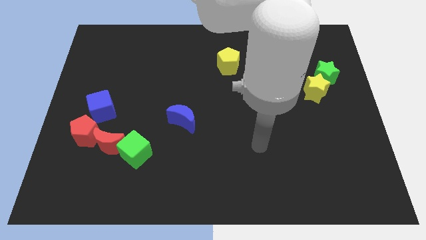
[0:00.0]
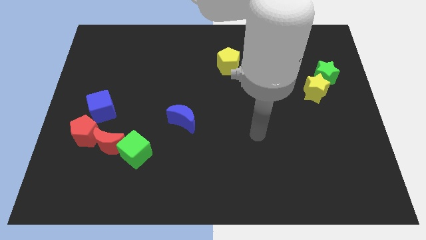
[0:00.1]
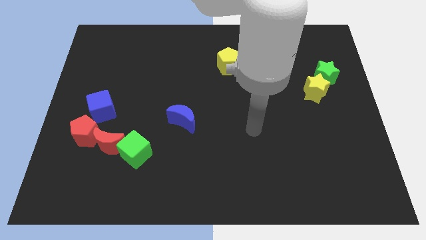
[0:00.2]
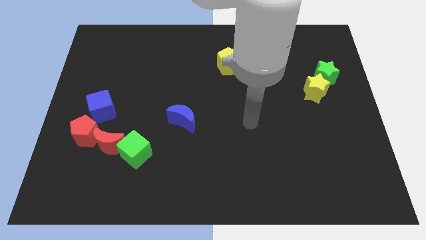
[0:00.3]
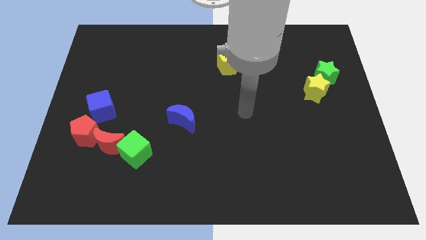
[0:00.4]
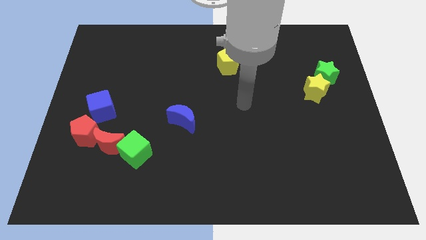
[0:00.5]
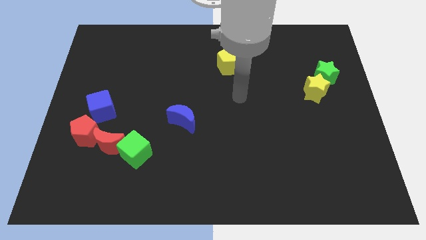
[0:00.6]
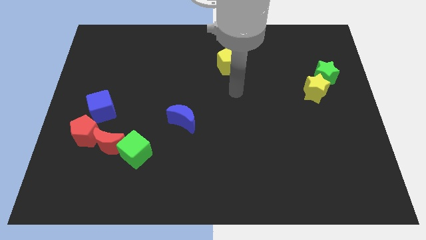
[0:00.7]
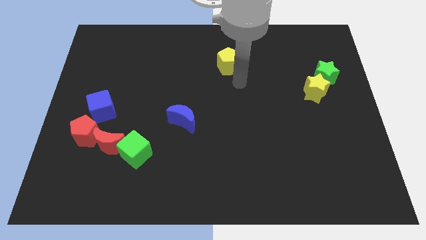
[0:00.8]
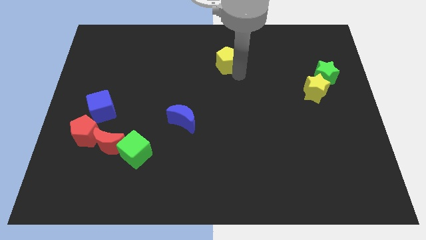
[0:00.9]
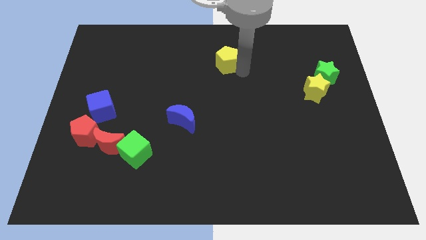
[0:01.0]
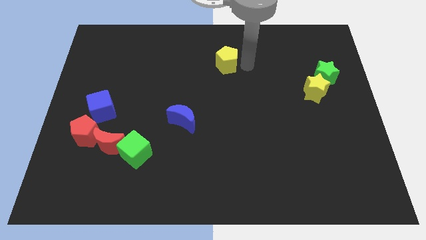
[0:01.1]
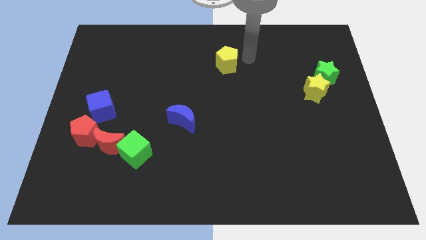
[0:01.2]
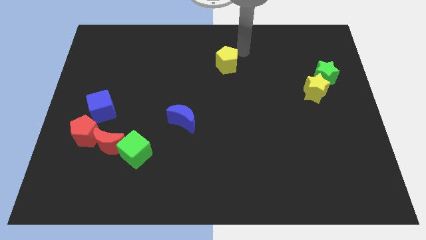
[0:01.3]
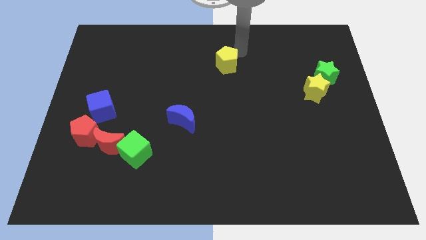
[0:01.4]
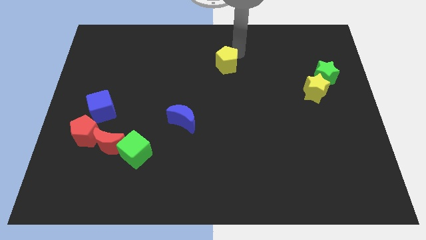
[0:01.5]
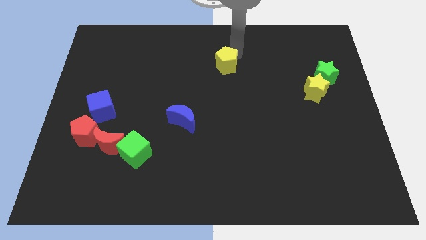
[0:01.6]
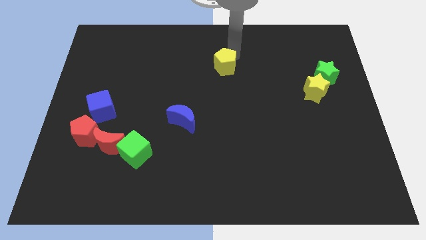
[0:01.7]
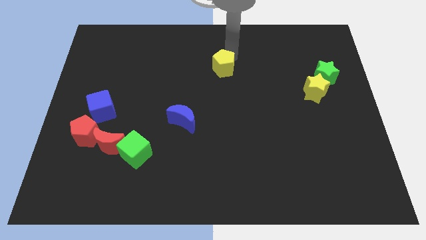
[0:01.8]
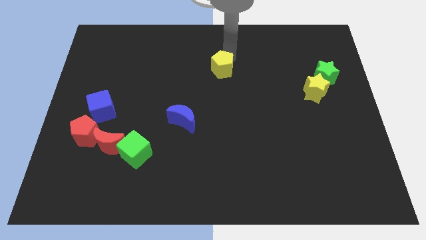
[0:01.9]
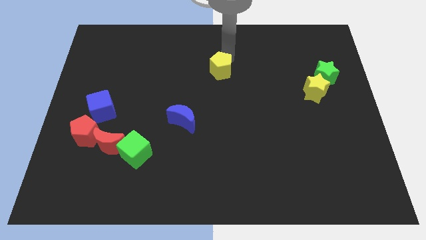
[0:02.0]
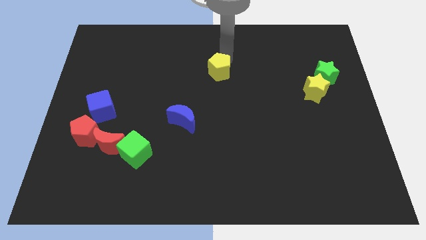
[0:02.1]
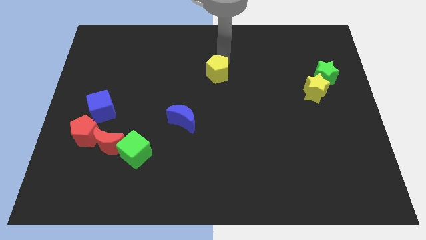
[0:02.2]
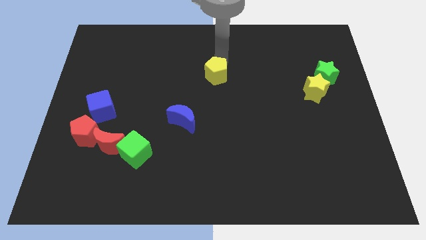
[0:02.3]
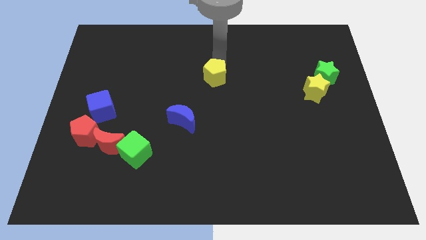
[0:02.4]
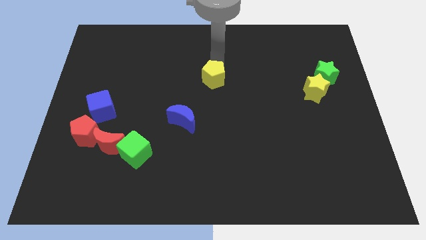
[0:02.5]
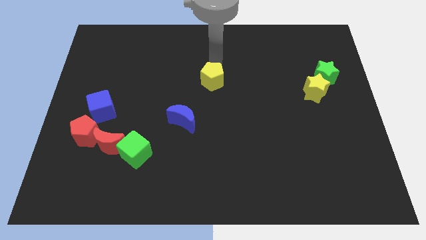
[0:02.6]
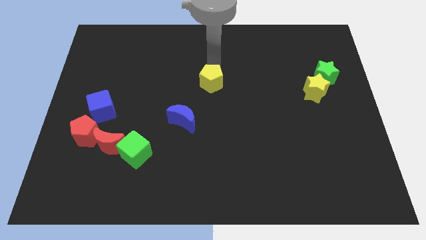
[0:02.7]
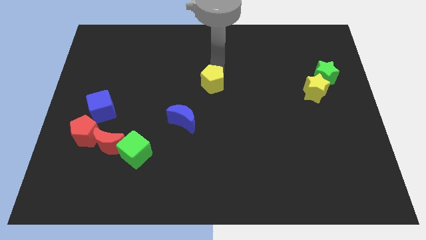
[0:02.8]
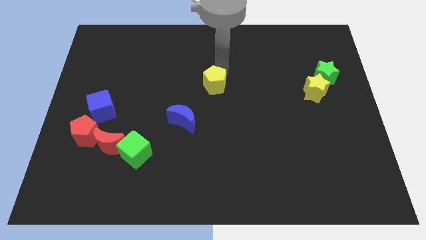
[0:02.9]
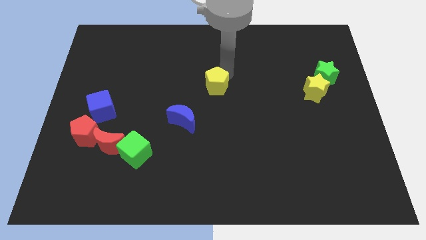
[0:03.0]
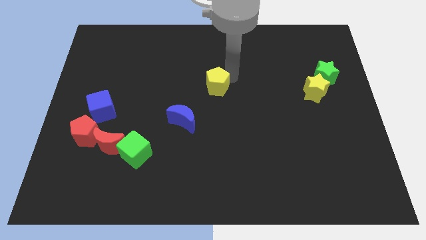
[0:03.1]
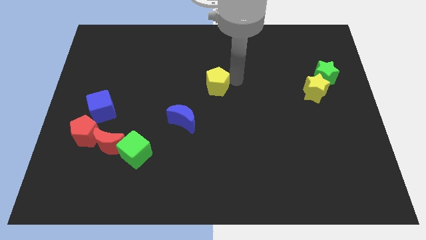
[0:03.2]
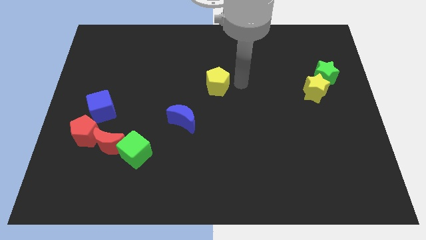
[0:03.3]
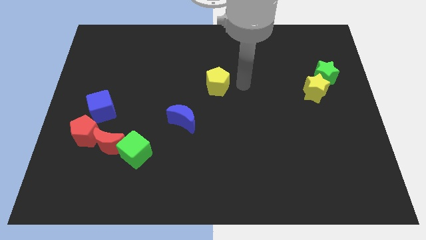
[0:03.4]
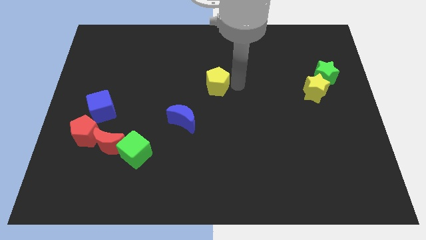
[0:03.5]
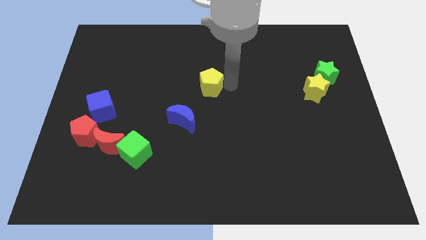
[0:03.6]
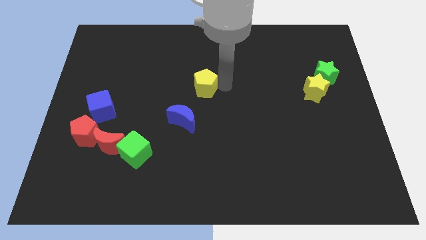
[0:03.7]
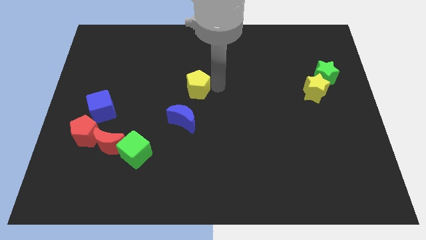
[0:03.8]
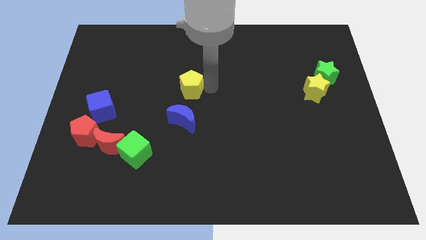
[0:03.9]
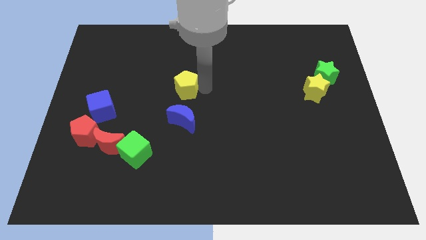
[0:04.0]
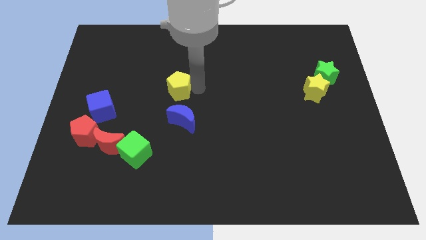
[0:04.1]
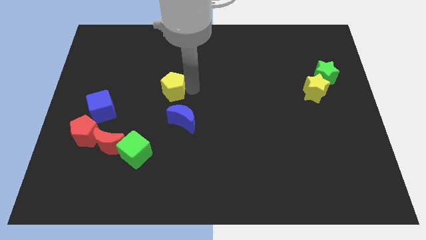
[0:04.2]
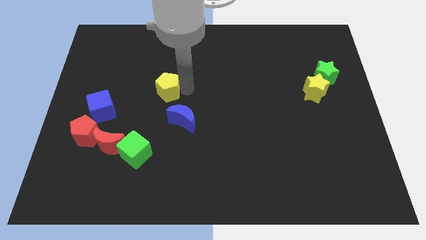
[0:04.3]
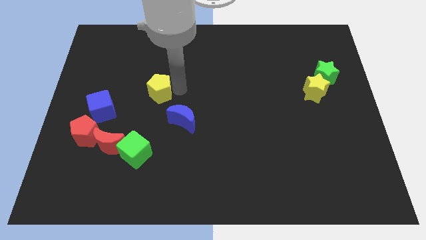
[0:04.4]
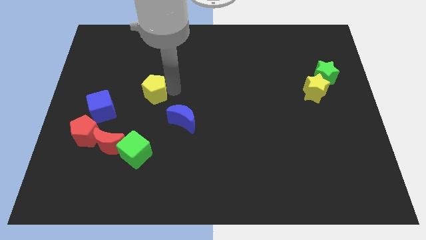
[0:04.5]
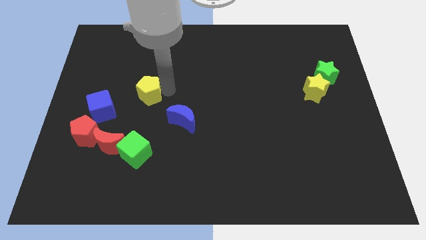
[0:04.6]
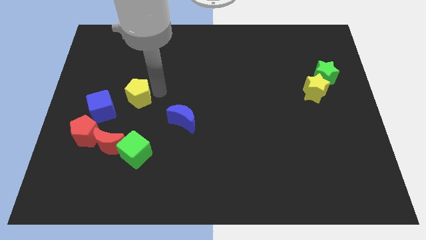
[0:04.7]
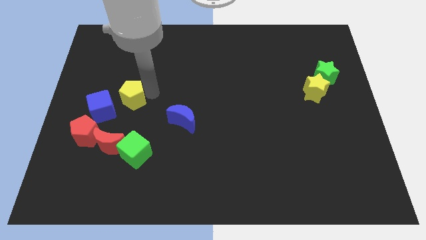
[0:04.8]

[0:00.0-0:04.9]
put the yellow pentagon to the top side of the red moon

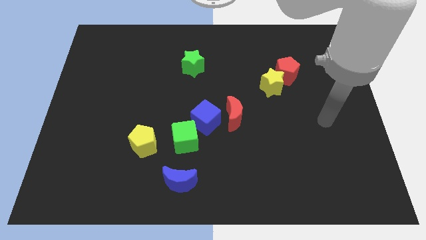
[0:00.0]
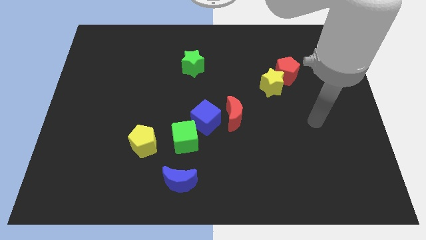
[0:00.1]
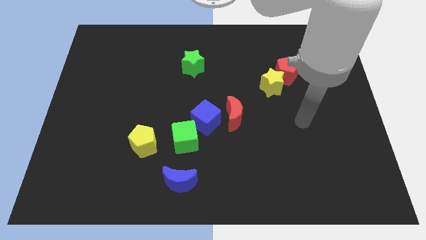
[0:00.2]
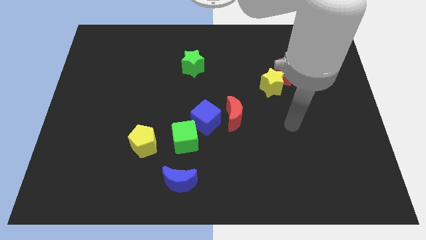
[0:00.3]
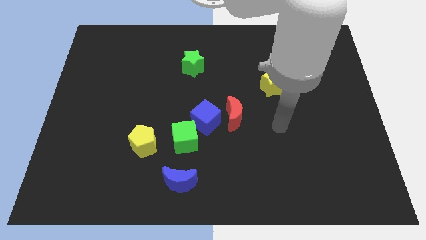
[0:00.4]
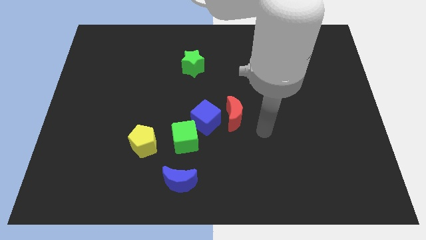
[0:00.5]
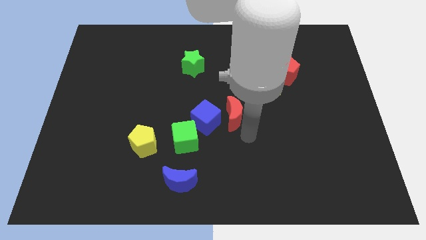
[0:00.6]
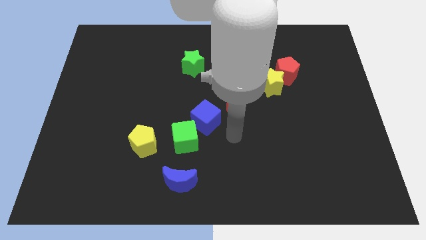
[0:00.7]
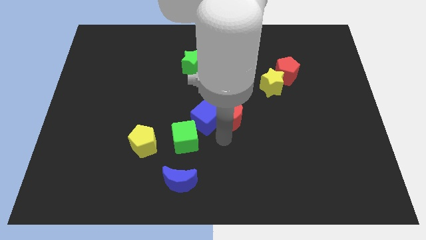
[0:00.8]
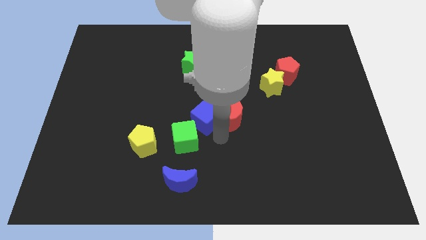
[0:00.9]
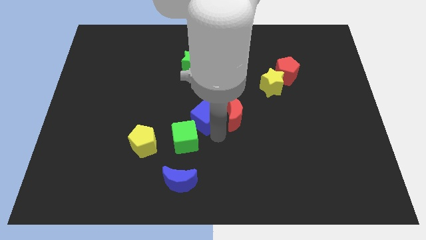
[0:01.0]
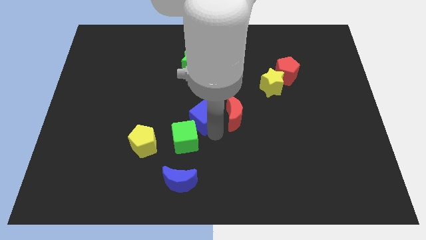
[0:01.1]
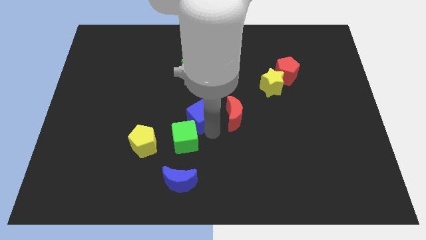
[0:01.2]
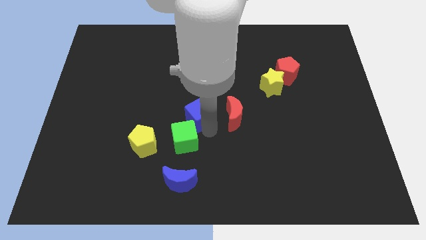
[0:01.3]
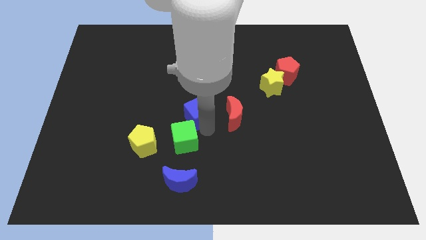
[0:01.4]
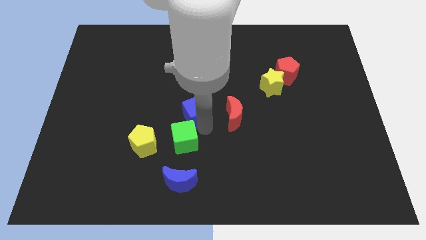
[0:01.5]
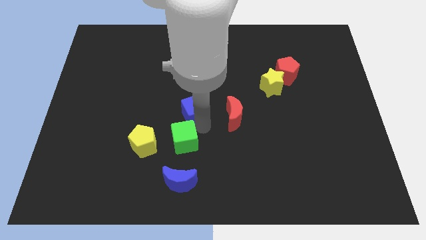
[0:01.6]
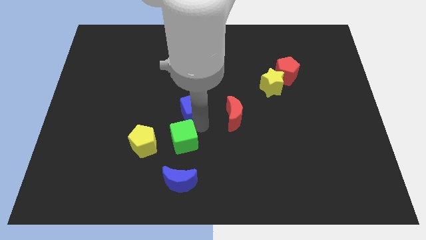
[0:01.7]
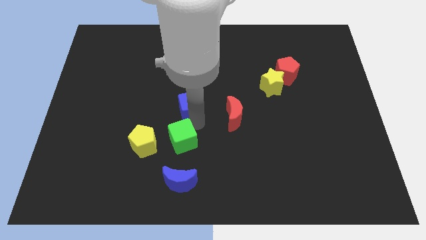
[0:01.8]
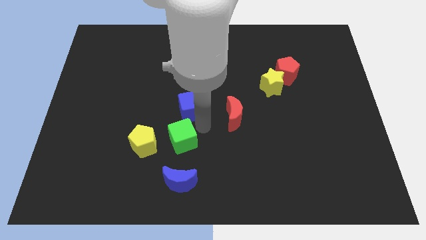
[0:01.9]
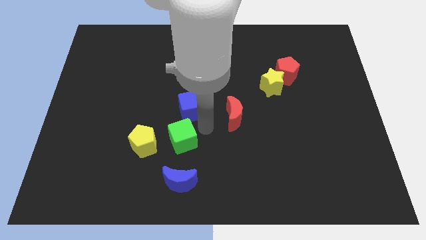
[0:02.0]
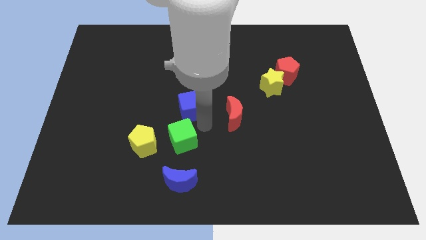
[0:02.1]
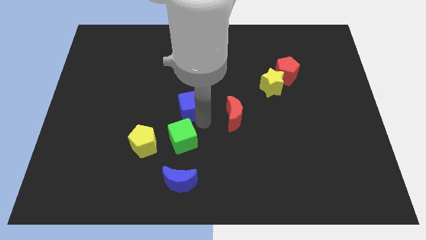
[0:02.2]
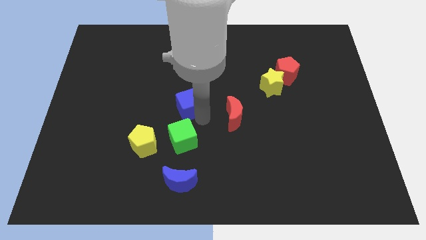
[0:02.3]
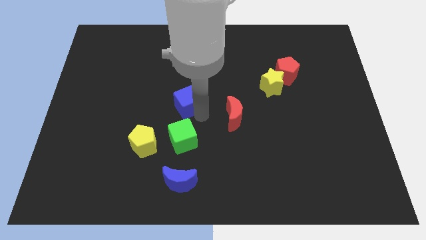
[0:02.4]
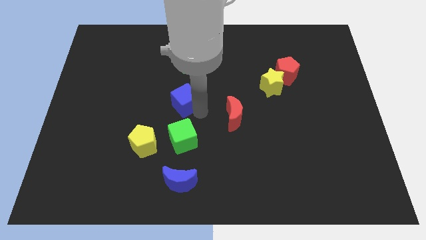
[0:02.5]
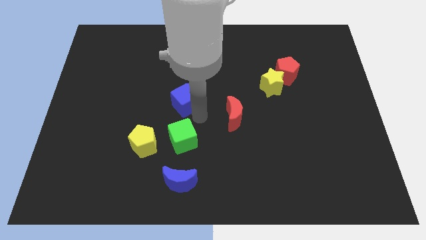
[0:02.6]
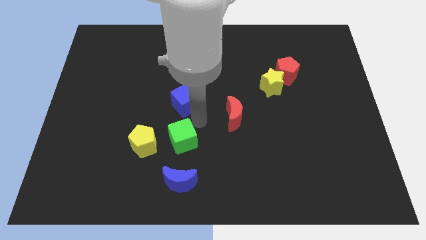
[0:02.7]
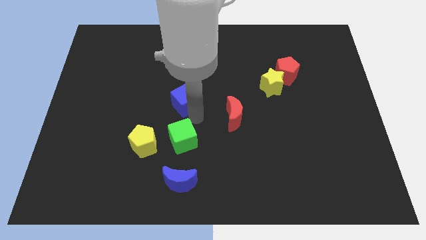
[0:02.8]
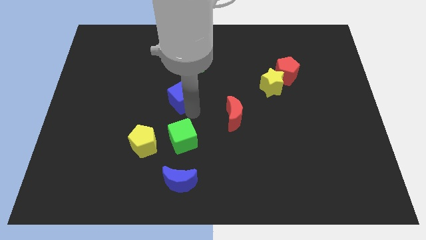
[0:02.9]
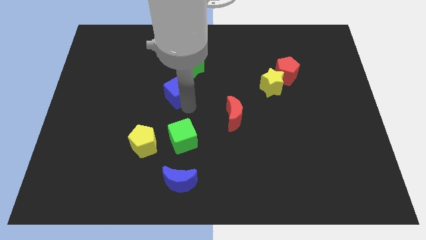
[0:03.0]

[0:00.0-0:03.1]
push the blue cube to the bottom left side of the green star
